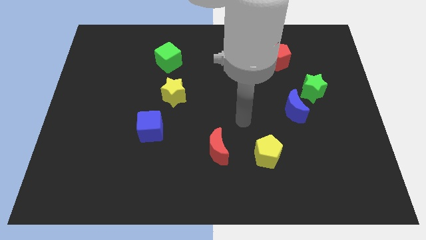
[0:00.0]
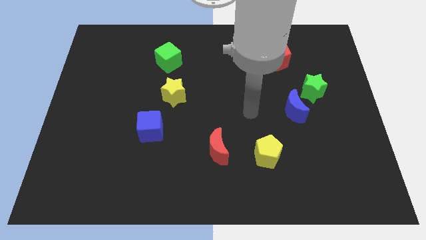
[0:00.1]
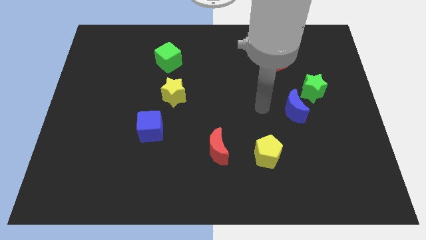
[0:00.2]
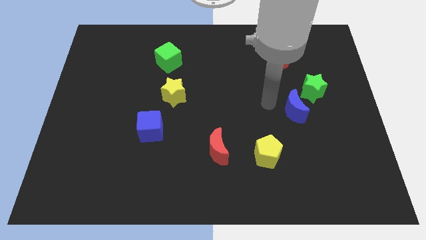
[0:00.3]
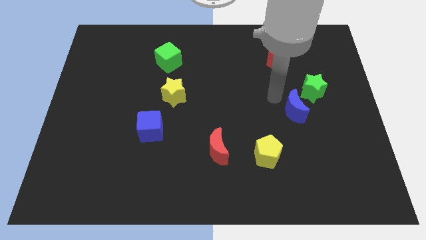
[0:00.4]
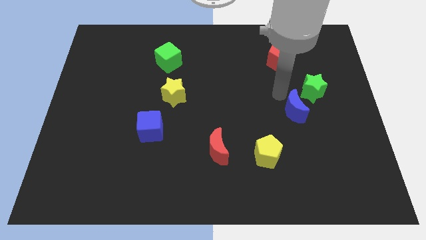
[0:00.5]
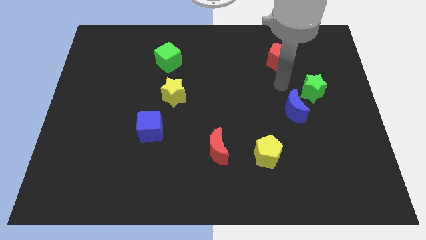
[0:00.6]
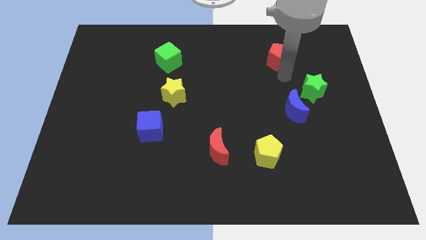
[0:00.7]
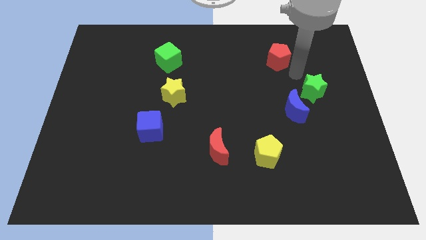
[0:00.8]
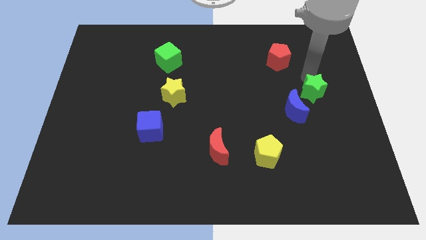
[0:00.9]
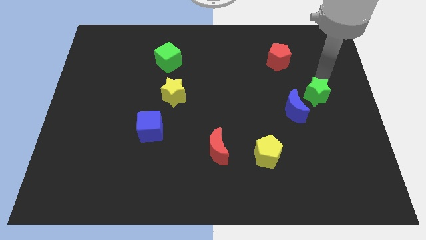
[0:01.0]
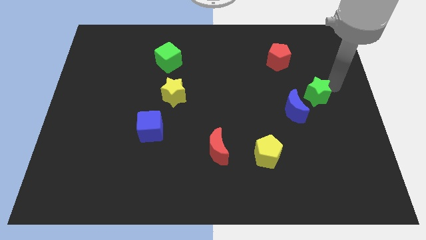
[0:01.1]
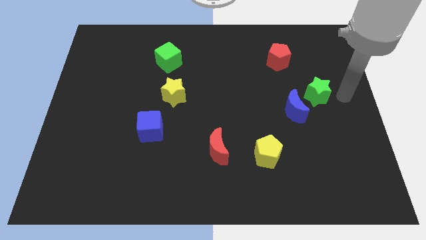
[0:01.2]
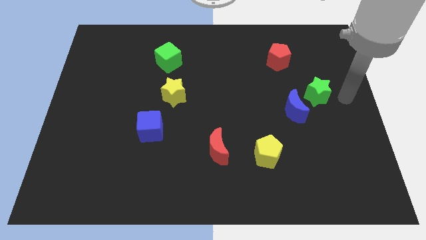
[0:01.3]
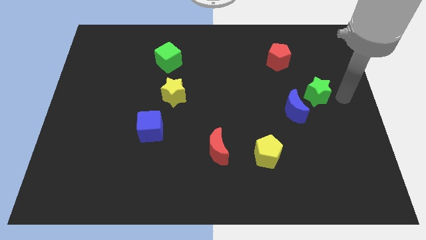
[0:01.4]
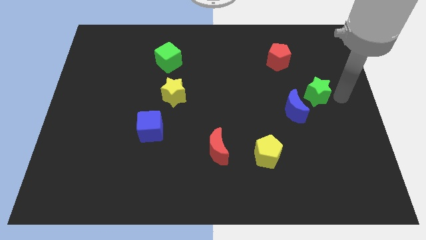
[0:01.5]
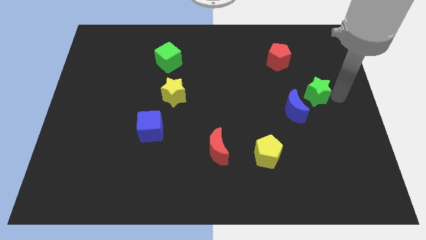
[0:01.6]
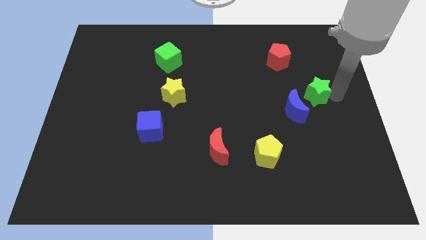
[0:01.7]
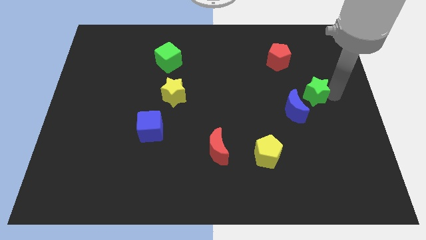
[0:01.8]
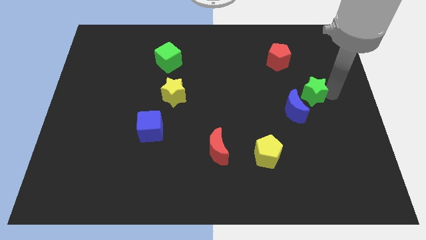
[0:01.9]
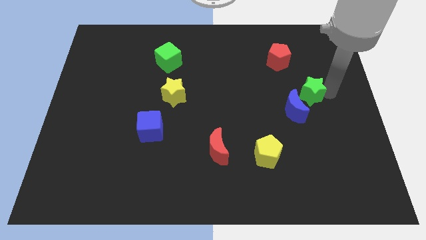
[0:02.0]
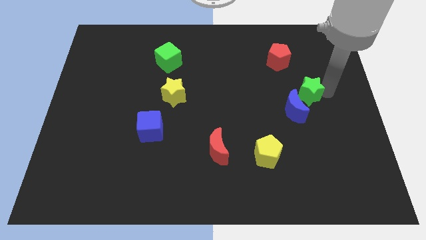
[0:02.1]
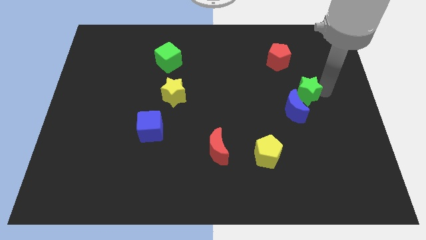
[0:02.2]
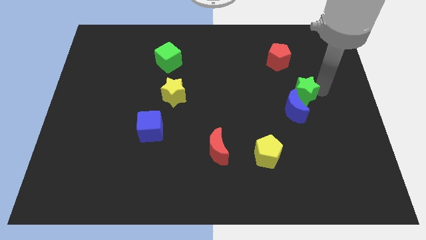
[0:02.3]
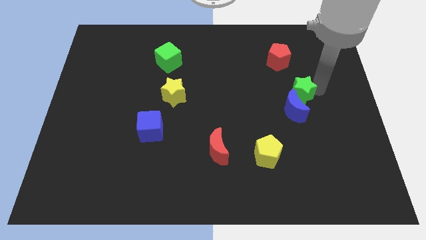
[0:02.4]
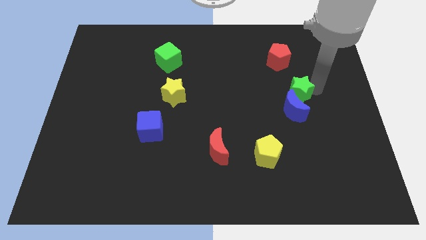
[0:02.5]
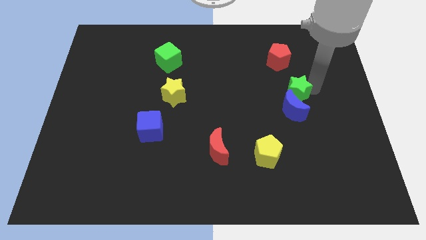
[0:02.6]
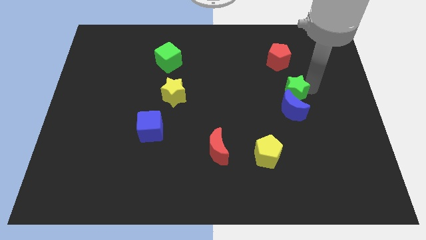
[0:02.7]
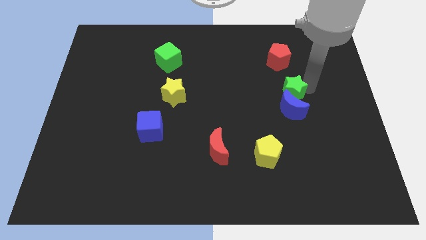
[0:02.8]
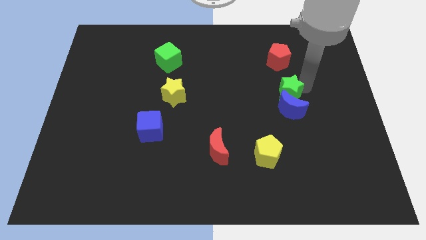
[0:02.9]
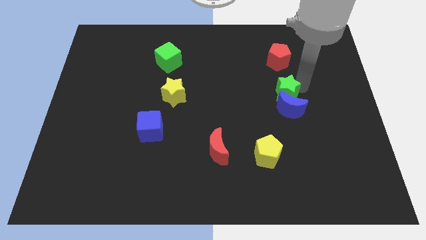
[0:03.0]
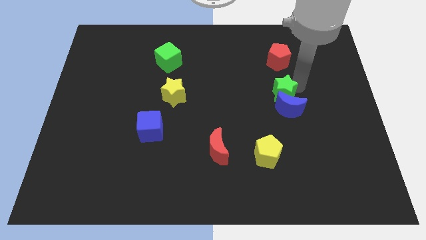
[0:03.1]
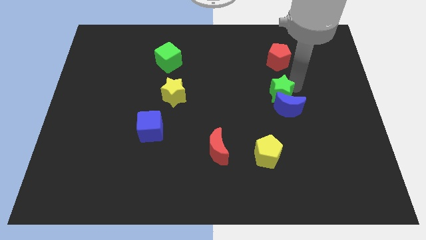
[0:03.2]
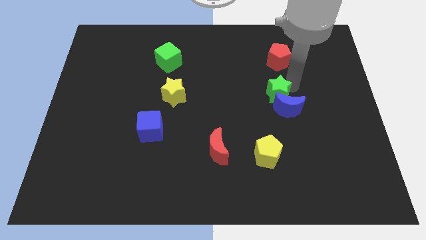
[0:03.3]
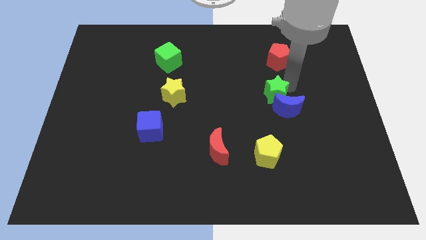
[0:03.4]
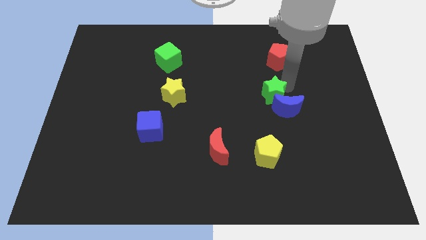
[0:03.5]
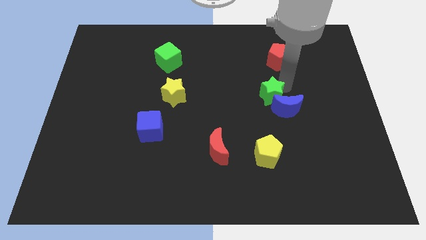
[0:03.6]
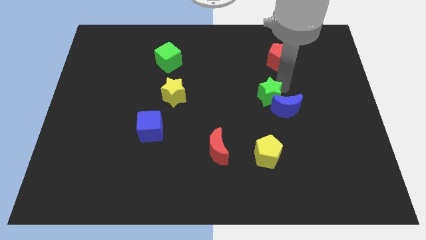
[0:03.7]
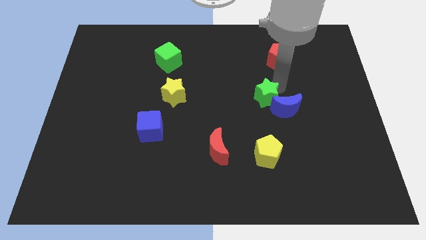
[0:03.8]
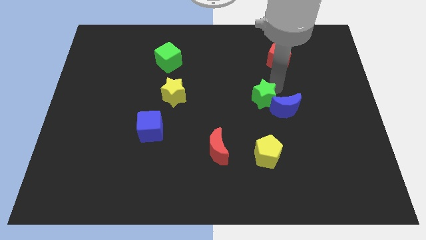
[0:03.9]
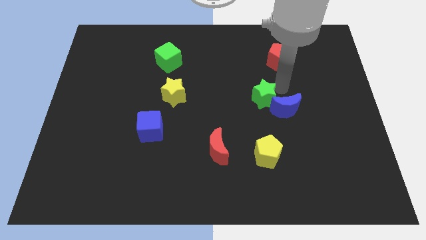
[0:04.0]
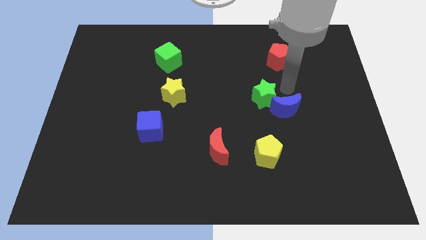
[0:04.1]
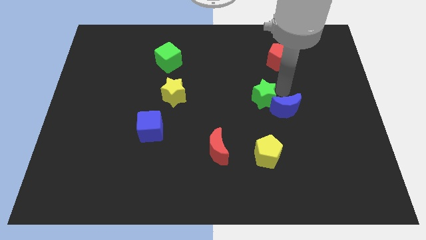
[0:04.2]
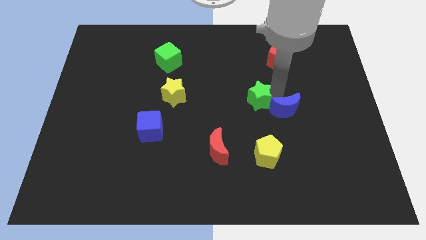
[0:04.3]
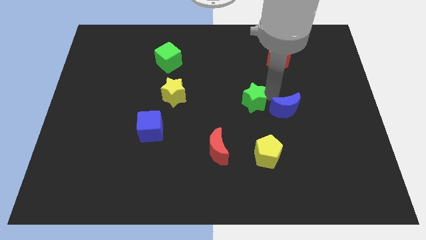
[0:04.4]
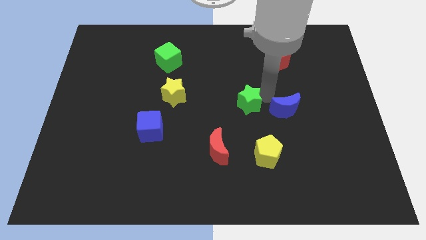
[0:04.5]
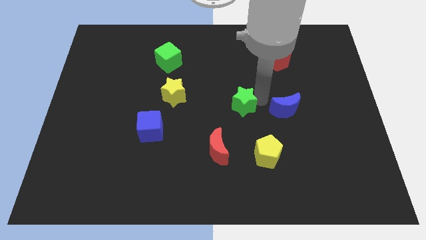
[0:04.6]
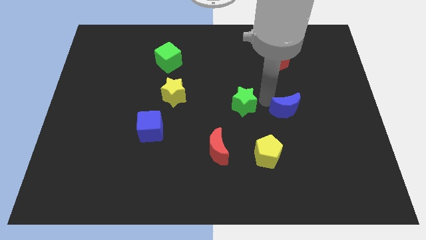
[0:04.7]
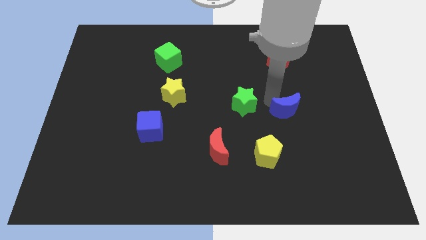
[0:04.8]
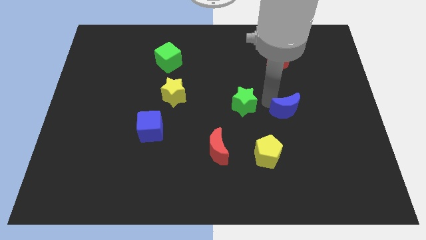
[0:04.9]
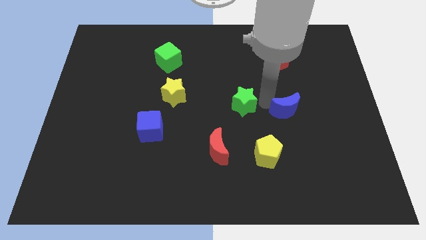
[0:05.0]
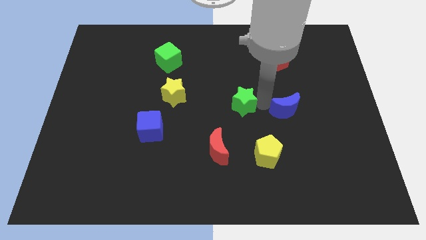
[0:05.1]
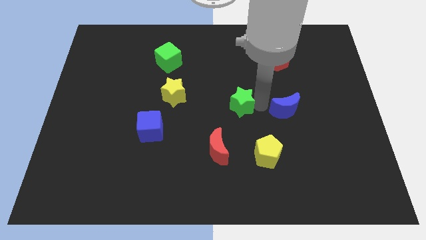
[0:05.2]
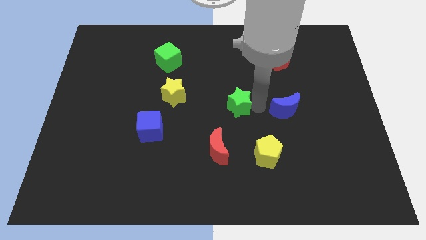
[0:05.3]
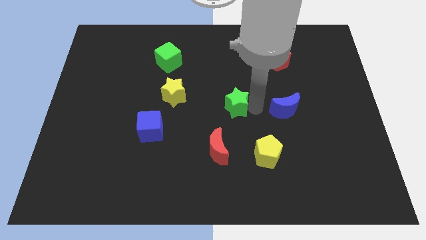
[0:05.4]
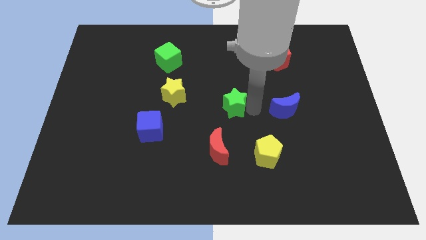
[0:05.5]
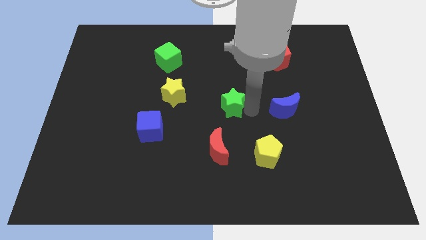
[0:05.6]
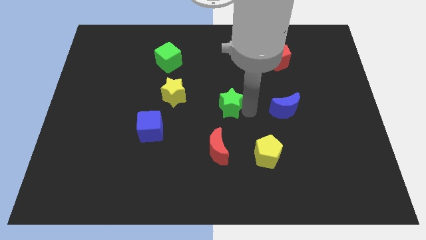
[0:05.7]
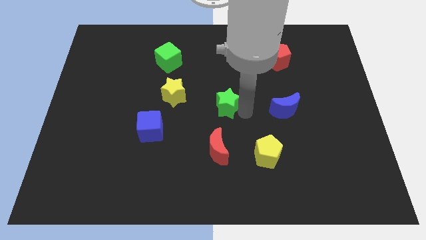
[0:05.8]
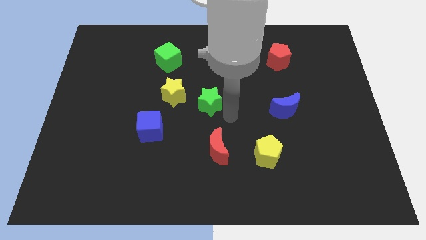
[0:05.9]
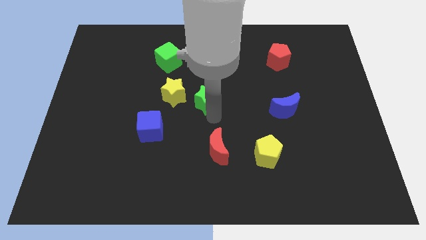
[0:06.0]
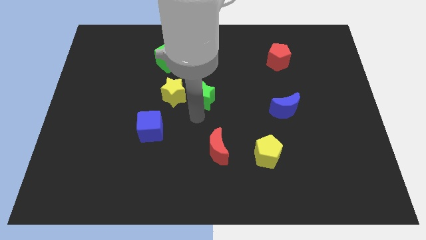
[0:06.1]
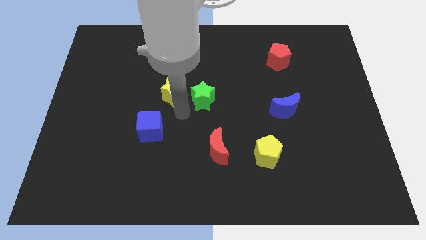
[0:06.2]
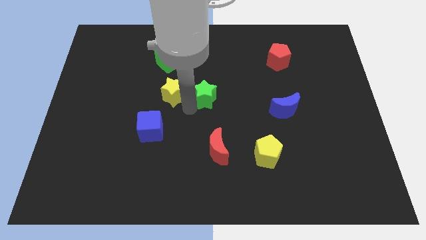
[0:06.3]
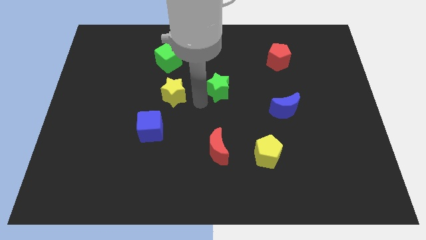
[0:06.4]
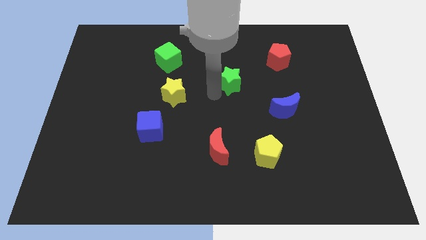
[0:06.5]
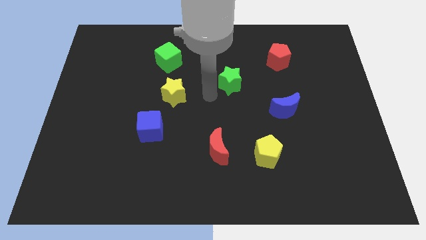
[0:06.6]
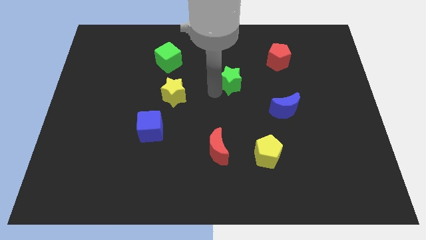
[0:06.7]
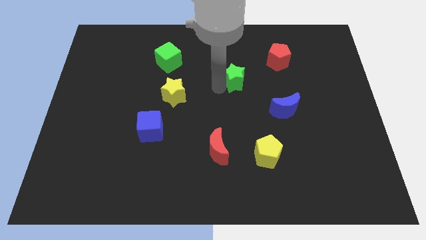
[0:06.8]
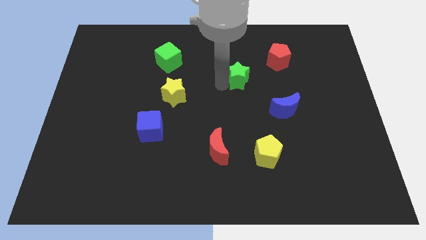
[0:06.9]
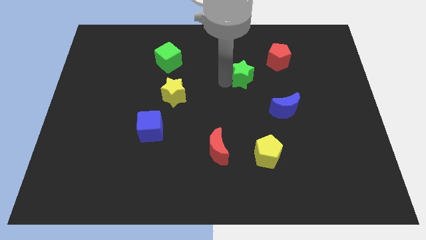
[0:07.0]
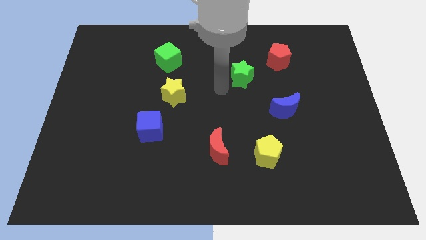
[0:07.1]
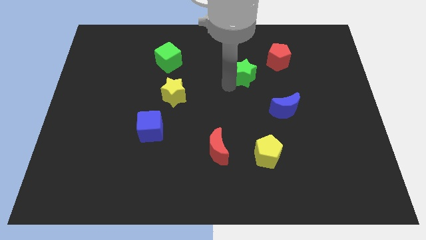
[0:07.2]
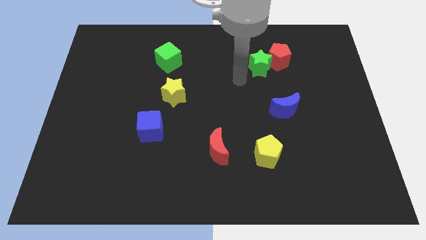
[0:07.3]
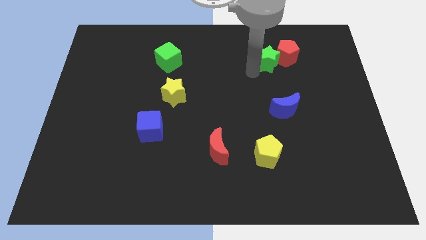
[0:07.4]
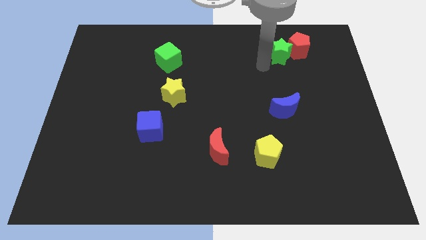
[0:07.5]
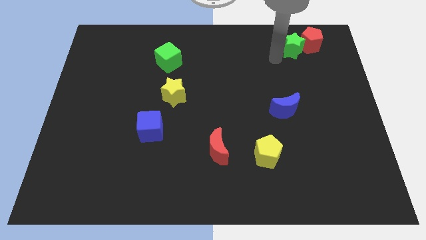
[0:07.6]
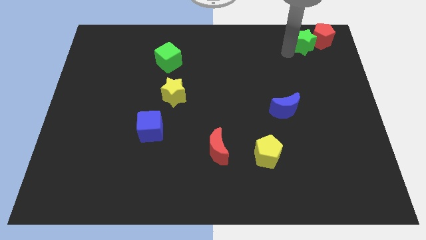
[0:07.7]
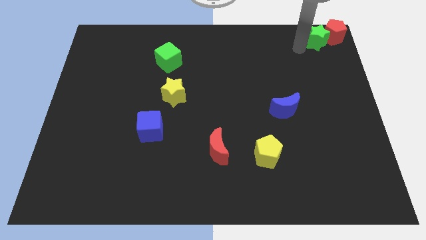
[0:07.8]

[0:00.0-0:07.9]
put the green star to the top right
